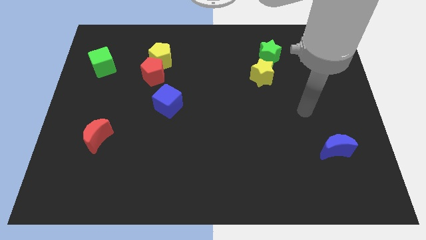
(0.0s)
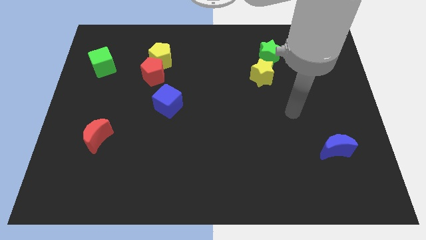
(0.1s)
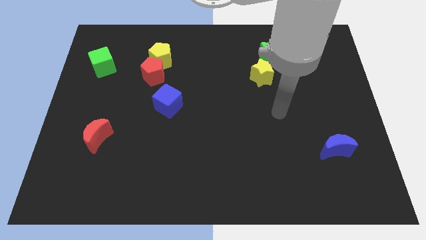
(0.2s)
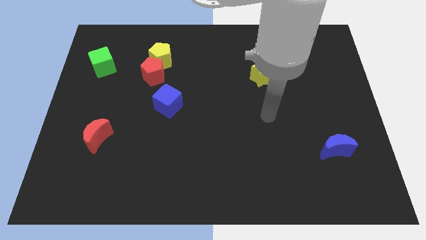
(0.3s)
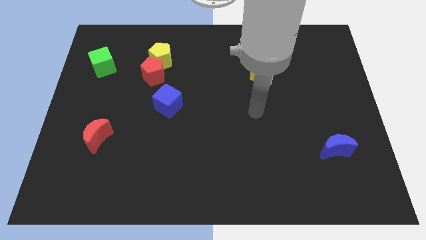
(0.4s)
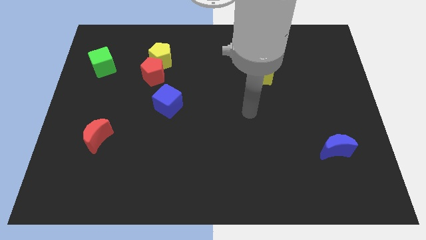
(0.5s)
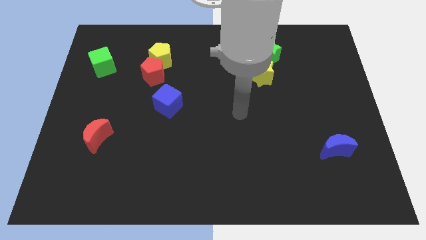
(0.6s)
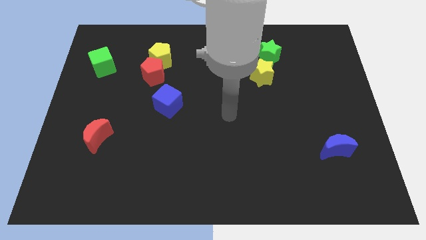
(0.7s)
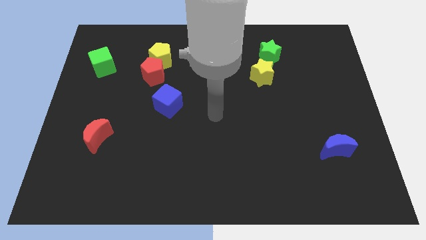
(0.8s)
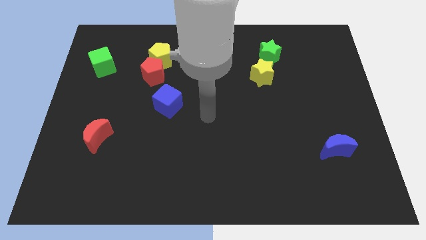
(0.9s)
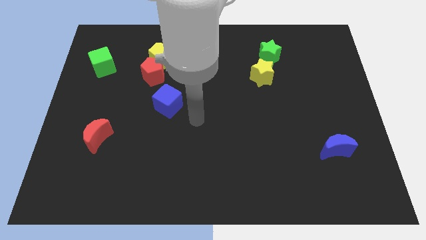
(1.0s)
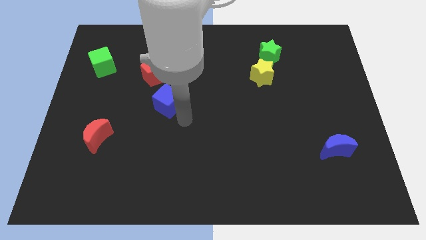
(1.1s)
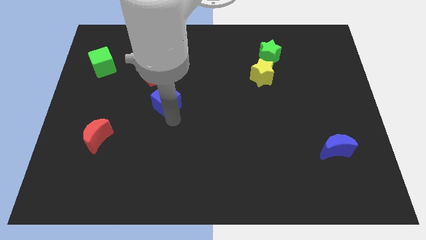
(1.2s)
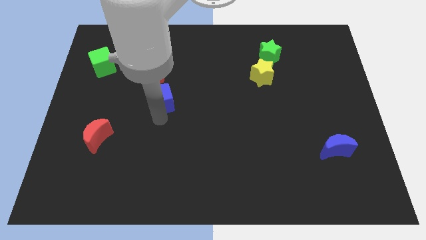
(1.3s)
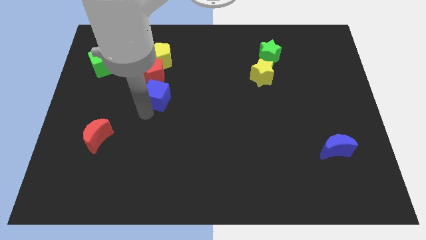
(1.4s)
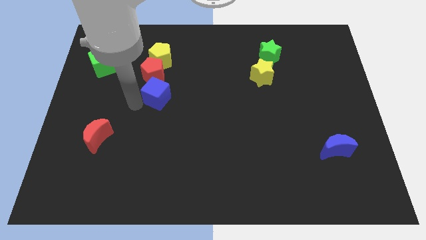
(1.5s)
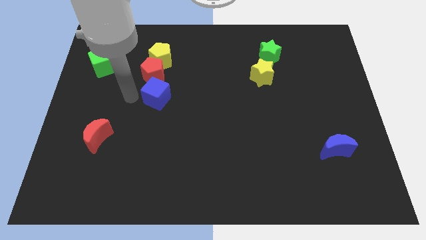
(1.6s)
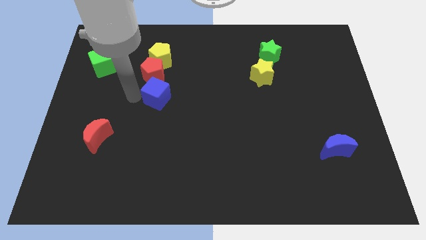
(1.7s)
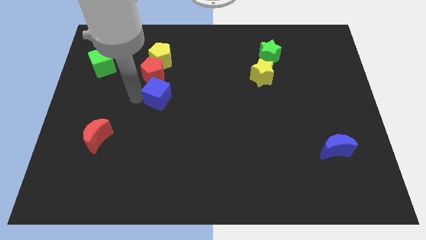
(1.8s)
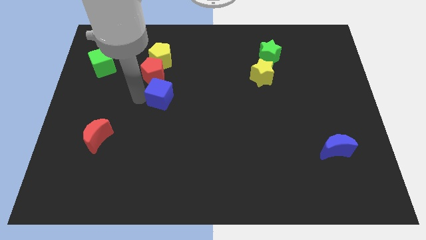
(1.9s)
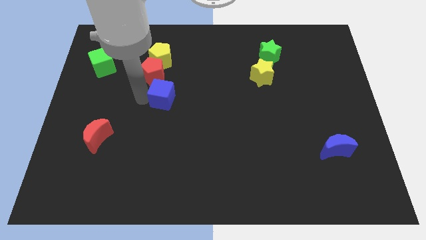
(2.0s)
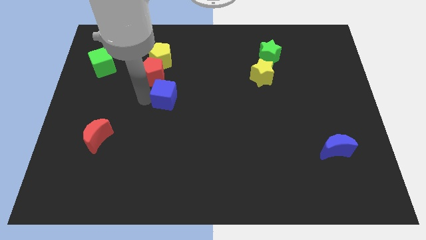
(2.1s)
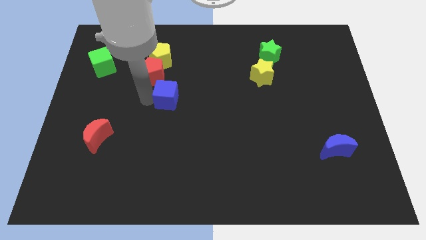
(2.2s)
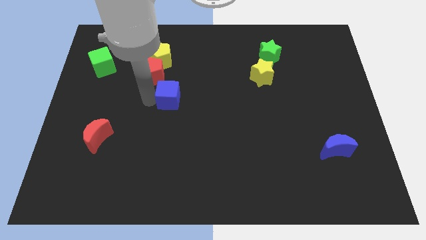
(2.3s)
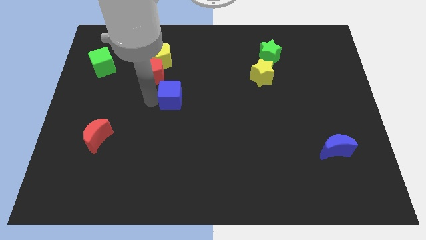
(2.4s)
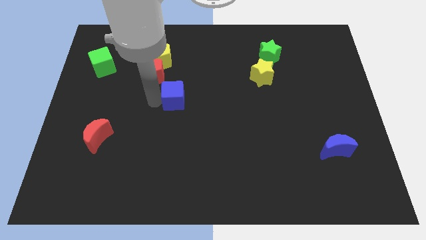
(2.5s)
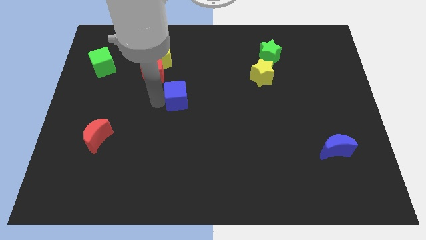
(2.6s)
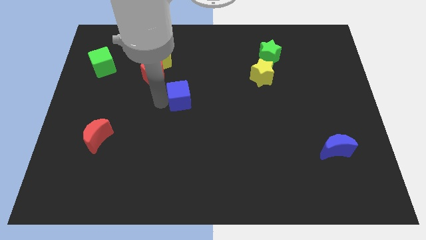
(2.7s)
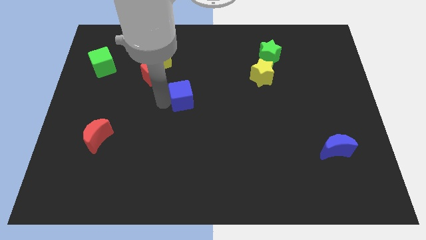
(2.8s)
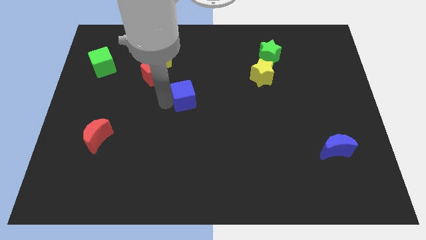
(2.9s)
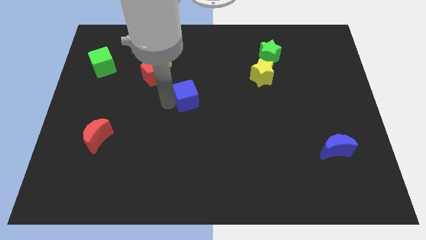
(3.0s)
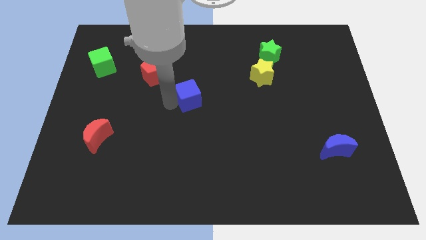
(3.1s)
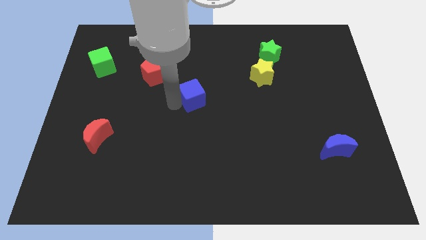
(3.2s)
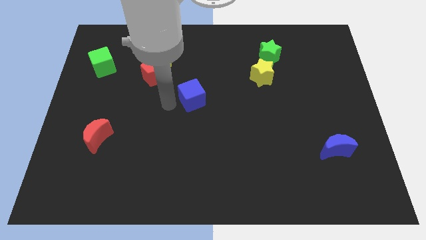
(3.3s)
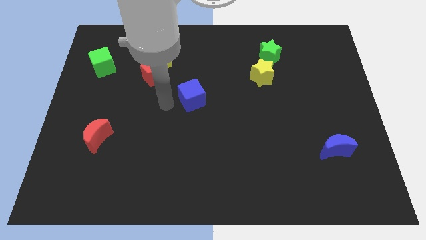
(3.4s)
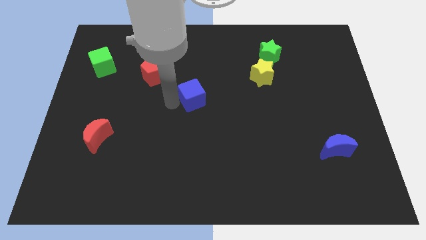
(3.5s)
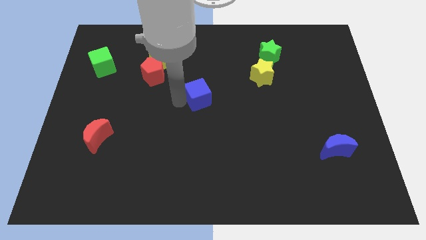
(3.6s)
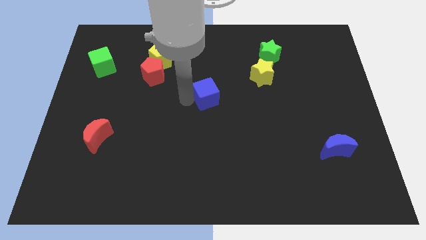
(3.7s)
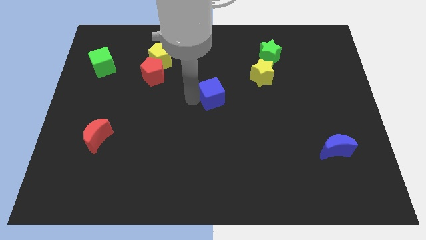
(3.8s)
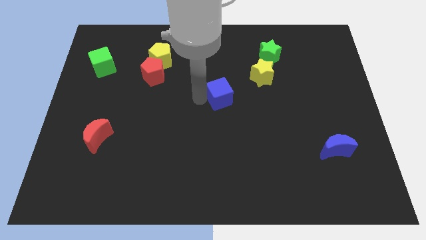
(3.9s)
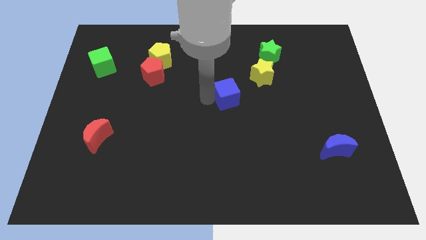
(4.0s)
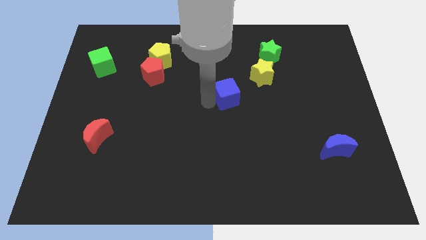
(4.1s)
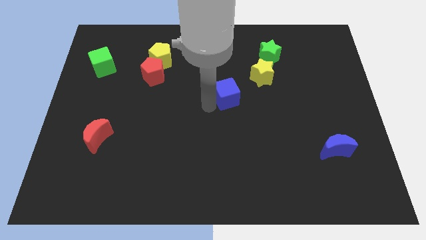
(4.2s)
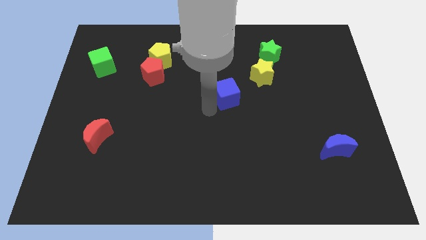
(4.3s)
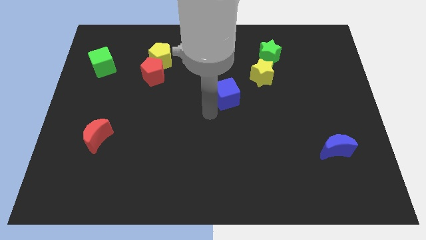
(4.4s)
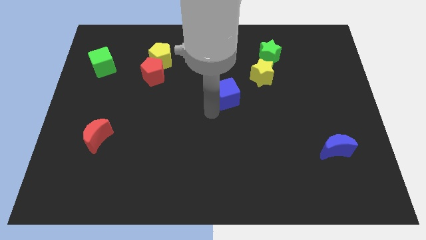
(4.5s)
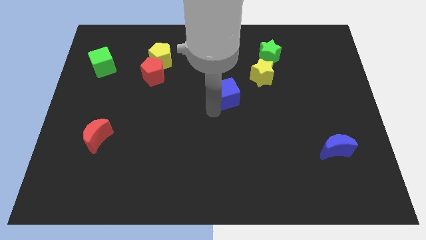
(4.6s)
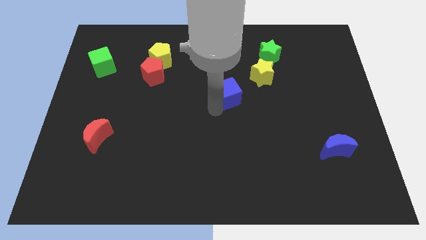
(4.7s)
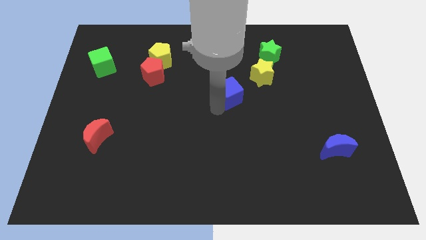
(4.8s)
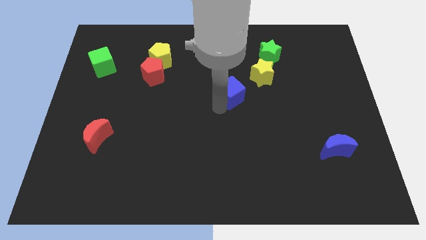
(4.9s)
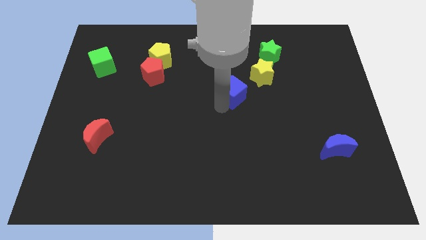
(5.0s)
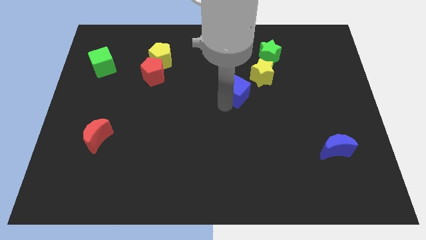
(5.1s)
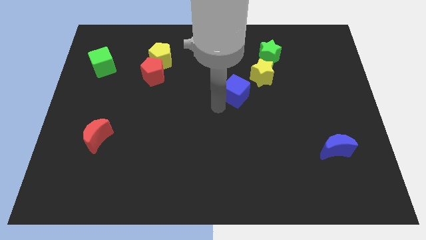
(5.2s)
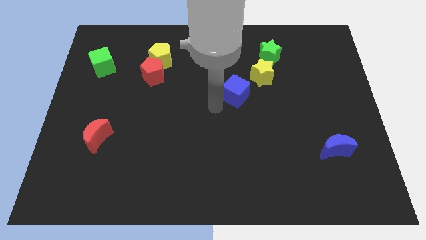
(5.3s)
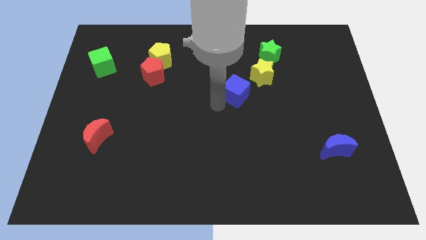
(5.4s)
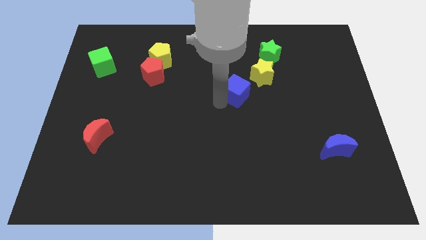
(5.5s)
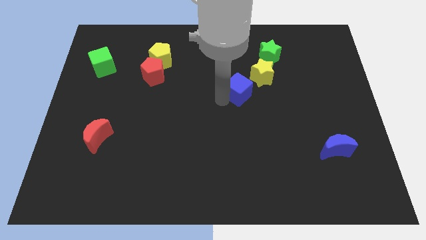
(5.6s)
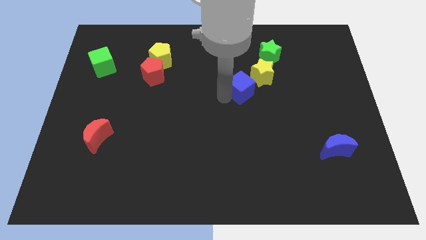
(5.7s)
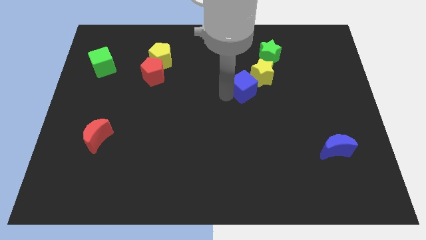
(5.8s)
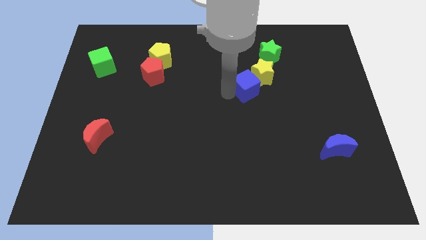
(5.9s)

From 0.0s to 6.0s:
put the blue cube towards the yellow star

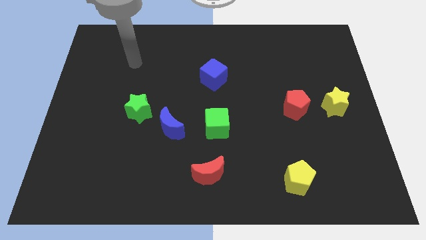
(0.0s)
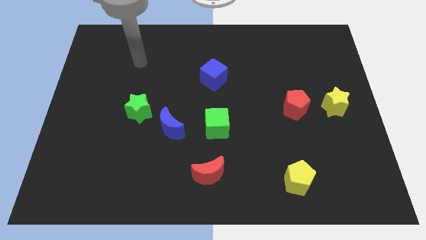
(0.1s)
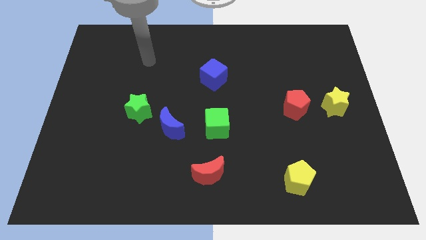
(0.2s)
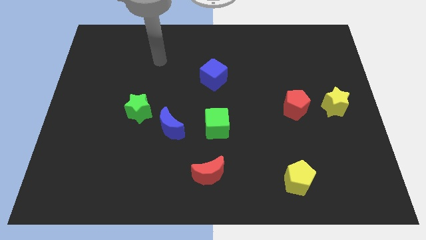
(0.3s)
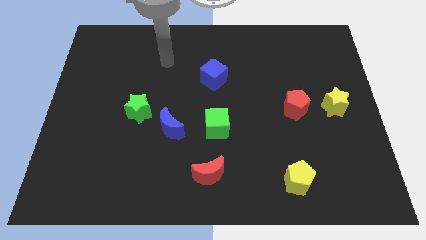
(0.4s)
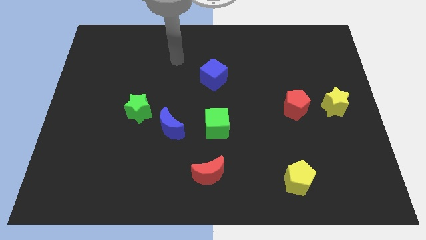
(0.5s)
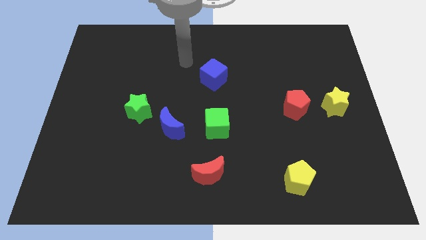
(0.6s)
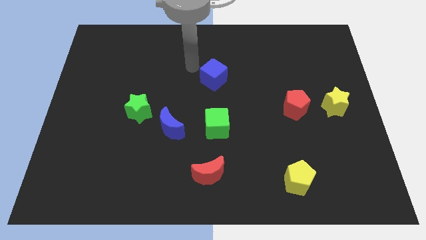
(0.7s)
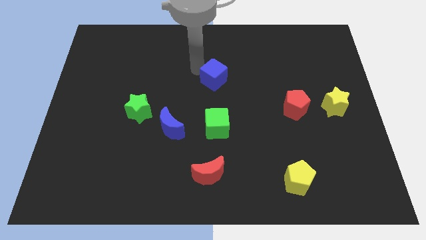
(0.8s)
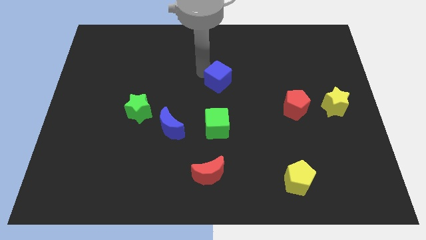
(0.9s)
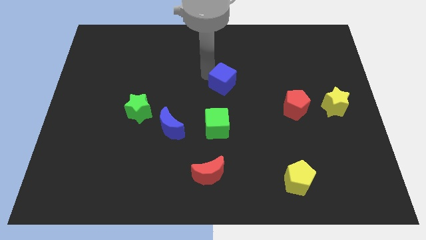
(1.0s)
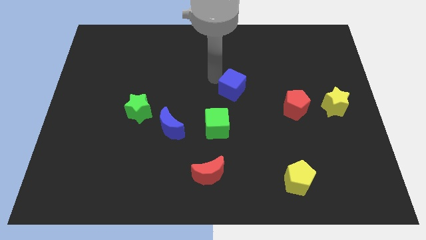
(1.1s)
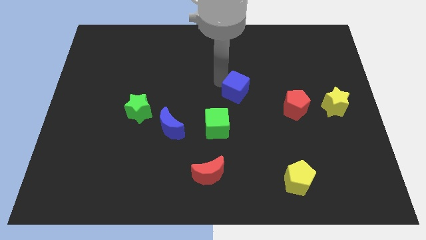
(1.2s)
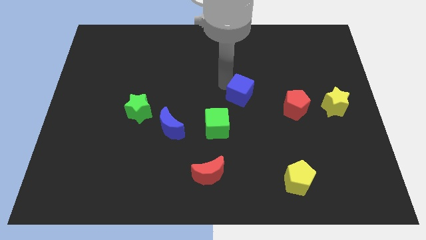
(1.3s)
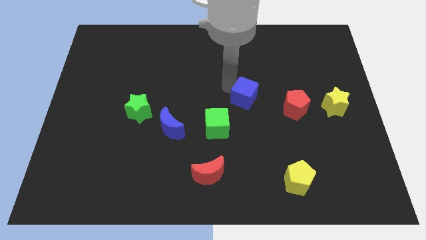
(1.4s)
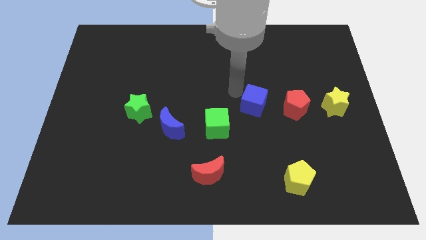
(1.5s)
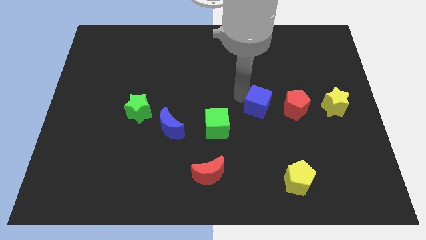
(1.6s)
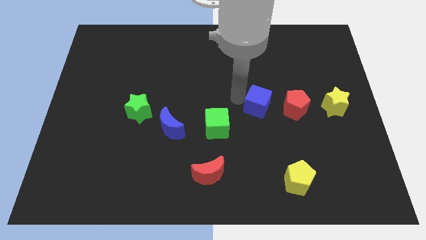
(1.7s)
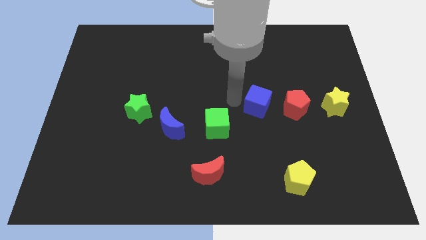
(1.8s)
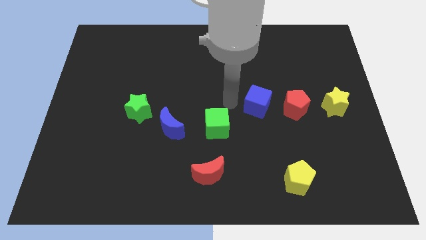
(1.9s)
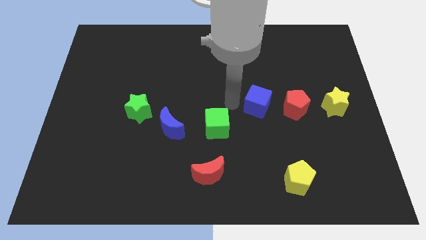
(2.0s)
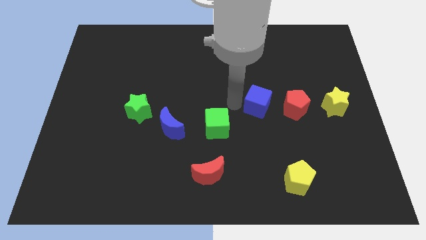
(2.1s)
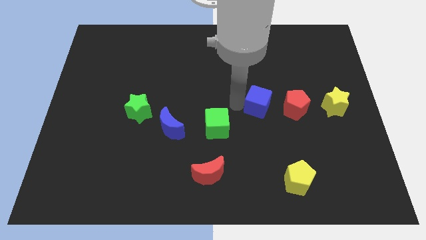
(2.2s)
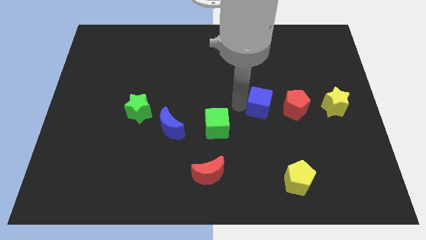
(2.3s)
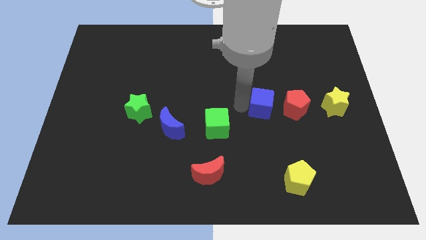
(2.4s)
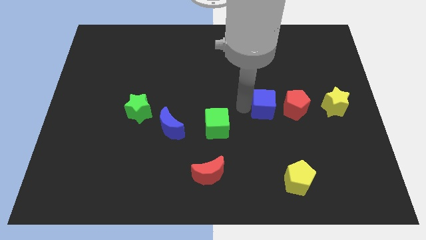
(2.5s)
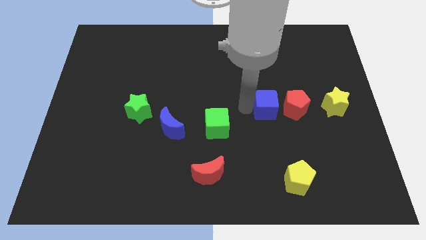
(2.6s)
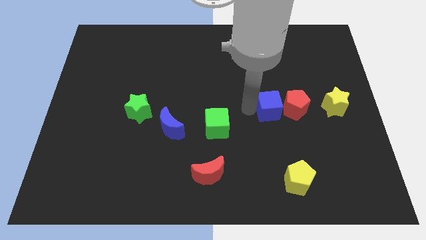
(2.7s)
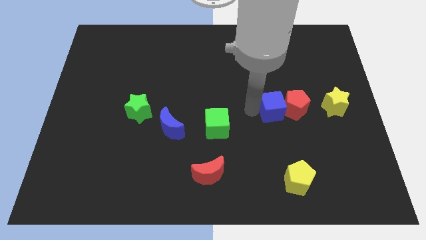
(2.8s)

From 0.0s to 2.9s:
move the blue cube close to the red pentagon
